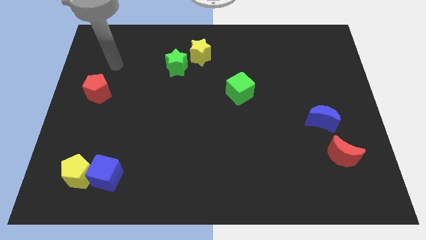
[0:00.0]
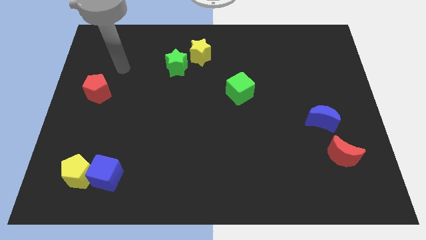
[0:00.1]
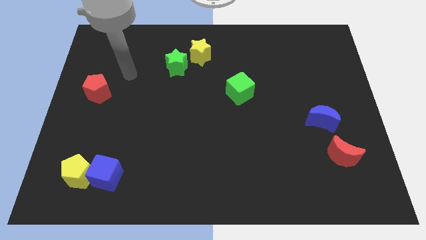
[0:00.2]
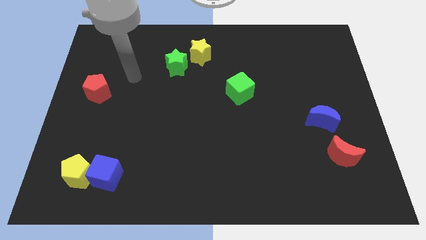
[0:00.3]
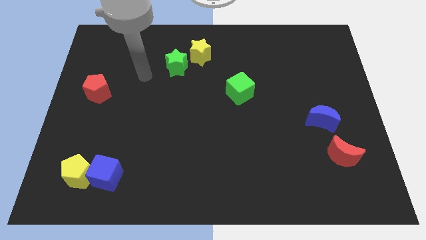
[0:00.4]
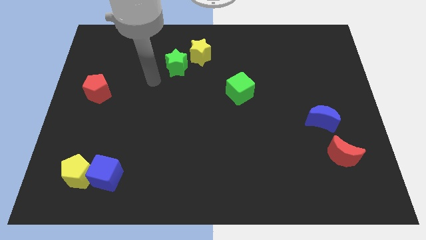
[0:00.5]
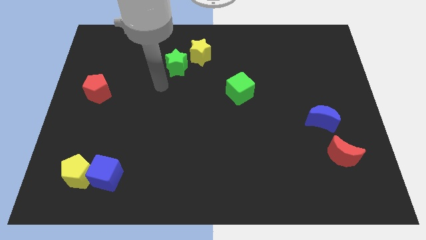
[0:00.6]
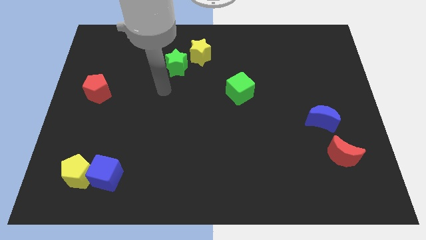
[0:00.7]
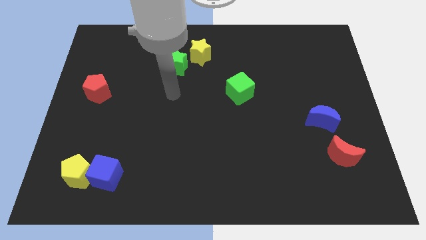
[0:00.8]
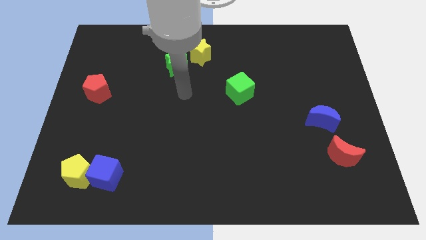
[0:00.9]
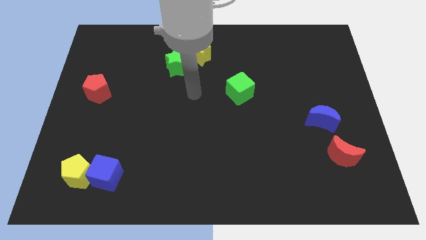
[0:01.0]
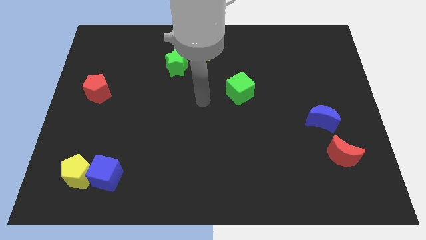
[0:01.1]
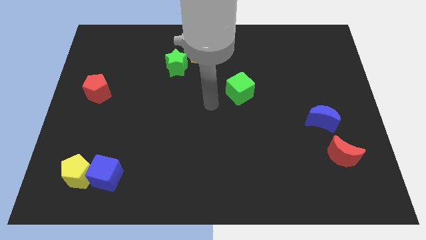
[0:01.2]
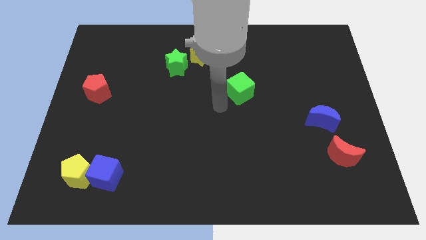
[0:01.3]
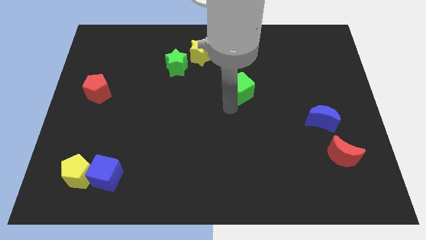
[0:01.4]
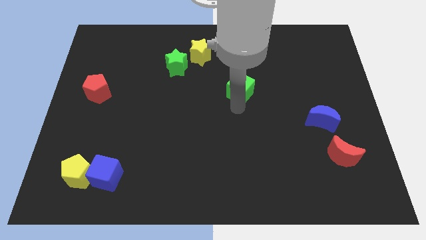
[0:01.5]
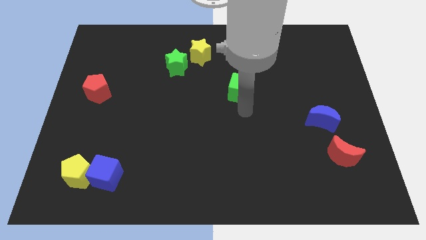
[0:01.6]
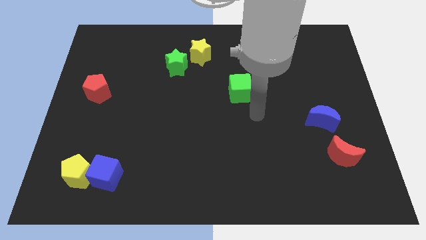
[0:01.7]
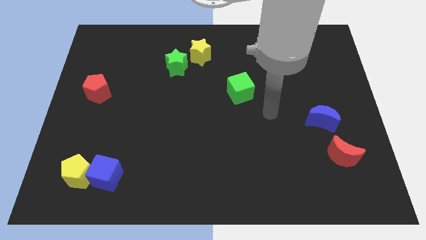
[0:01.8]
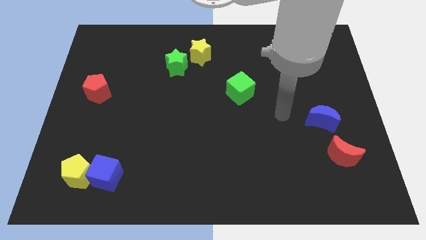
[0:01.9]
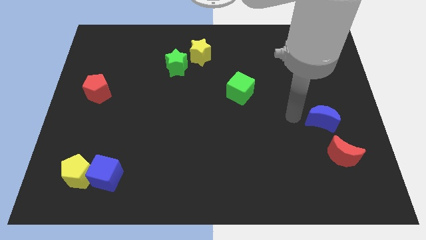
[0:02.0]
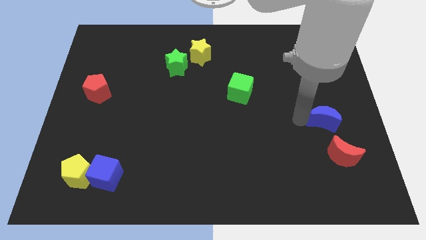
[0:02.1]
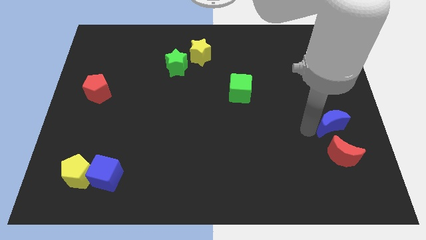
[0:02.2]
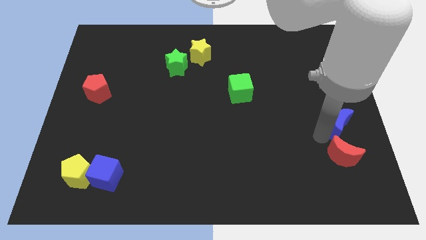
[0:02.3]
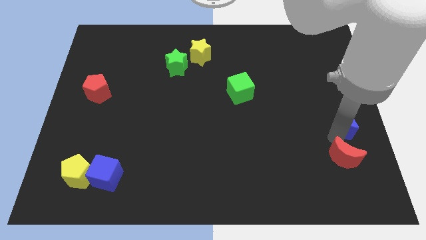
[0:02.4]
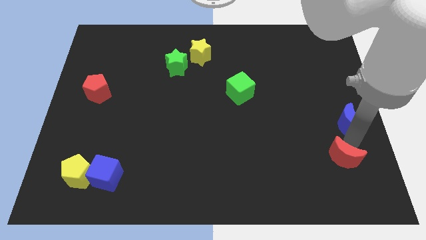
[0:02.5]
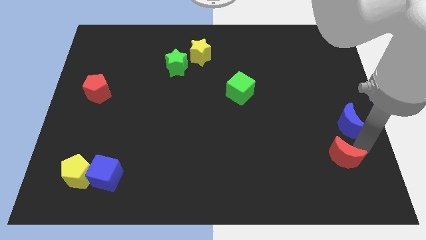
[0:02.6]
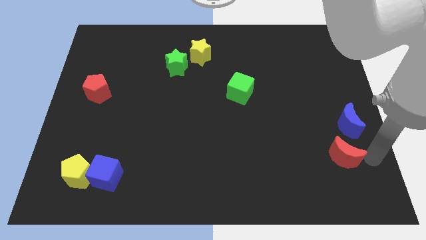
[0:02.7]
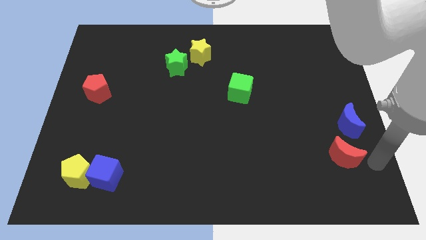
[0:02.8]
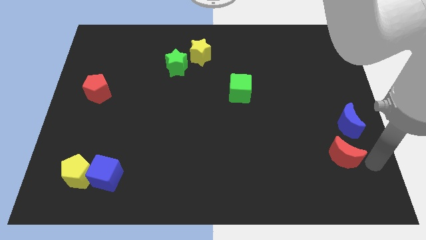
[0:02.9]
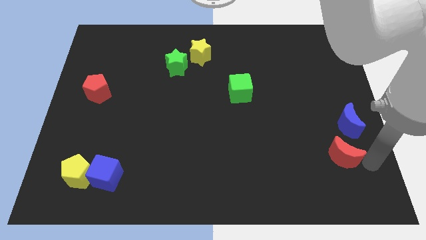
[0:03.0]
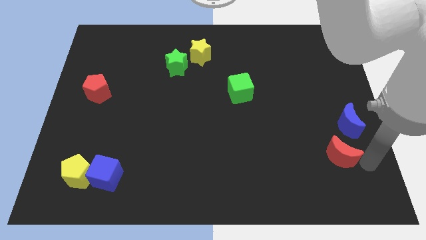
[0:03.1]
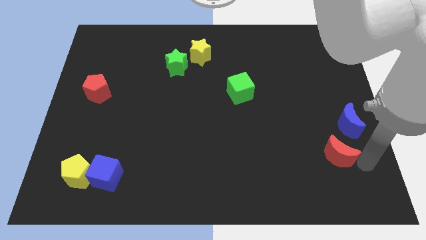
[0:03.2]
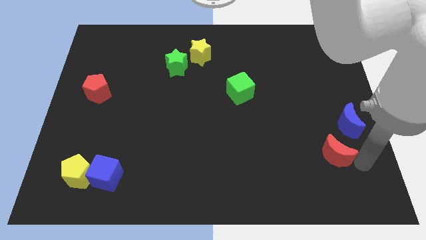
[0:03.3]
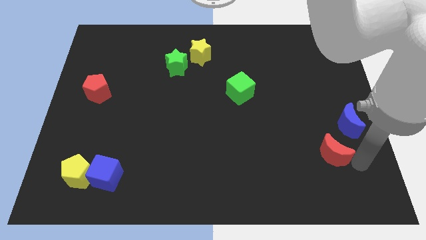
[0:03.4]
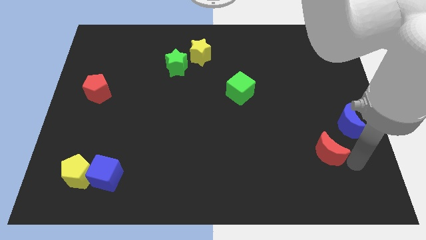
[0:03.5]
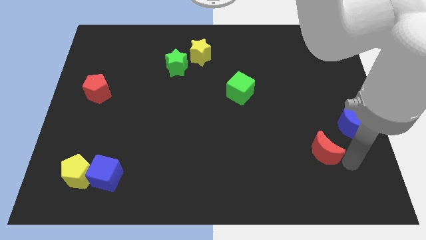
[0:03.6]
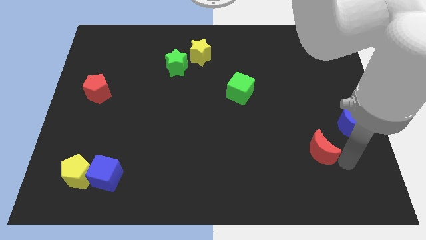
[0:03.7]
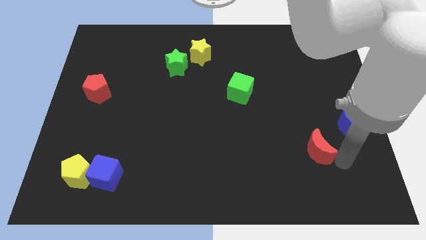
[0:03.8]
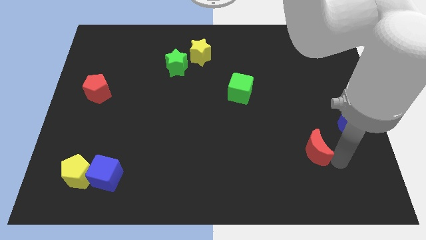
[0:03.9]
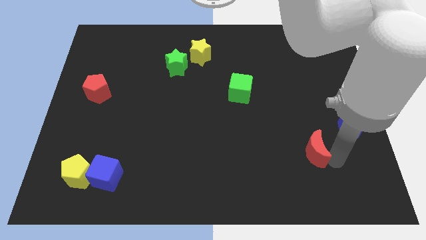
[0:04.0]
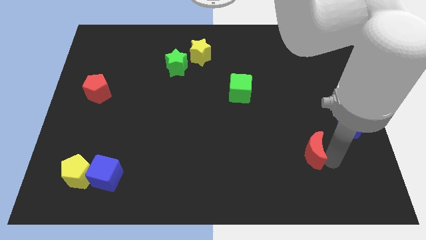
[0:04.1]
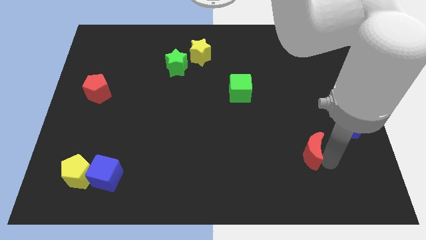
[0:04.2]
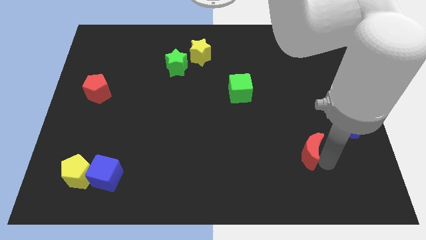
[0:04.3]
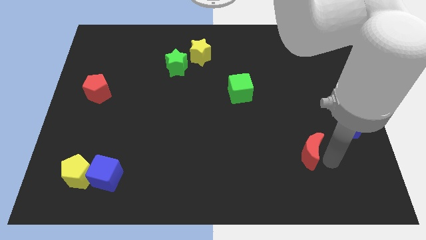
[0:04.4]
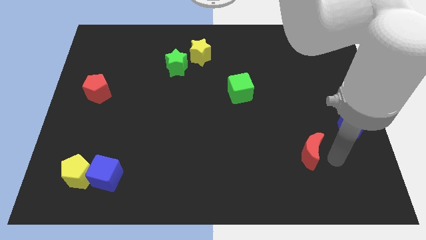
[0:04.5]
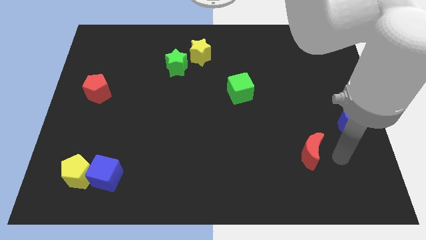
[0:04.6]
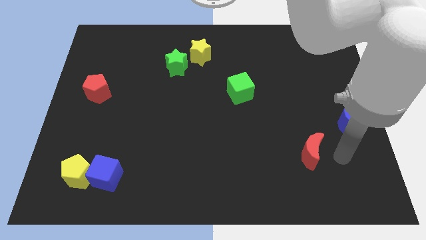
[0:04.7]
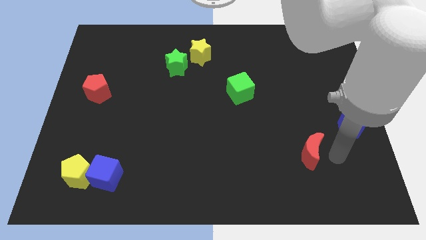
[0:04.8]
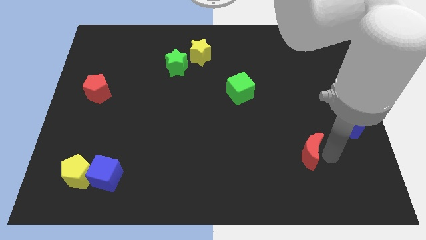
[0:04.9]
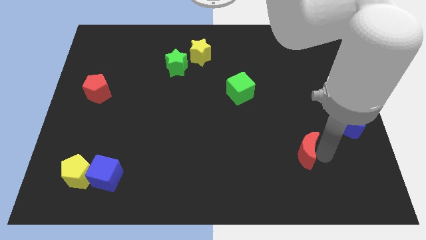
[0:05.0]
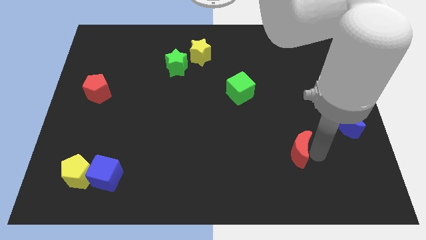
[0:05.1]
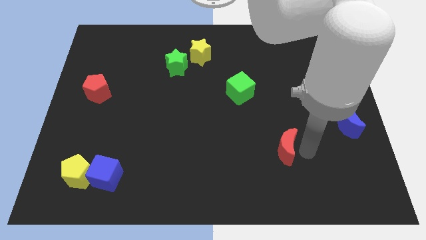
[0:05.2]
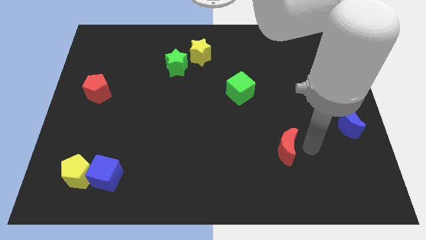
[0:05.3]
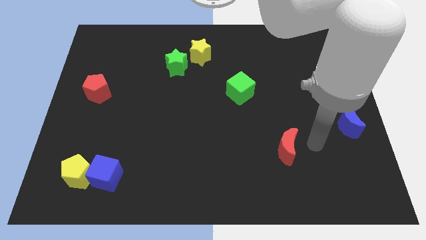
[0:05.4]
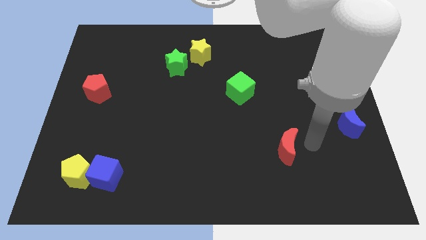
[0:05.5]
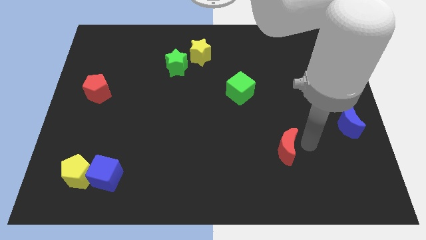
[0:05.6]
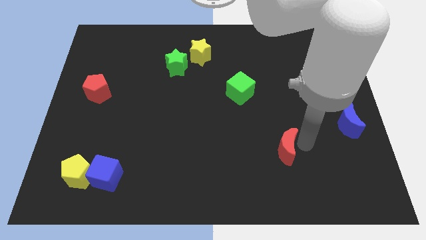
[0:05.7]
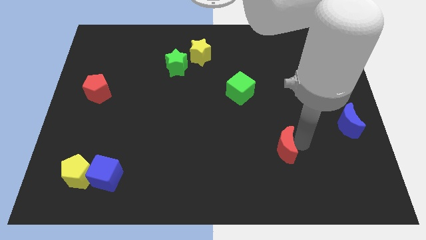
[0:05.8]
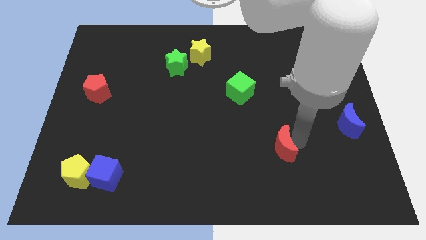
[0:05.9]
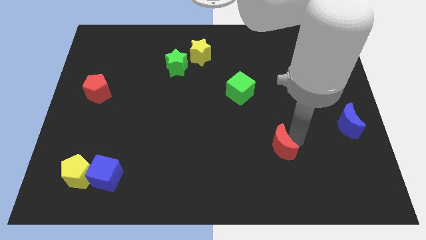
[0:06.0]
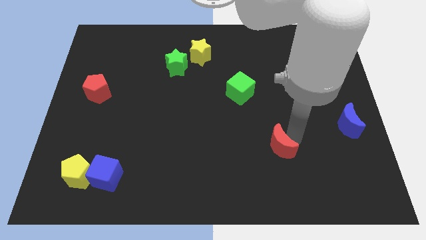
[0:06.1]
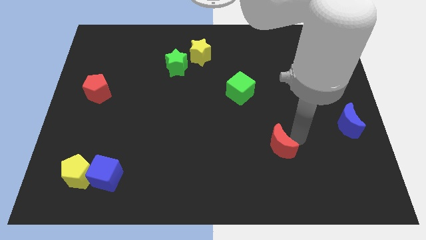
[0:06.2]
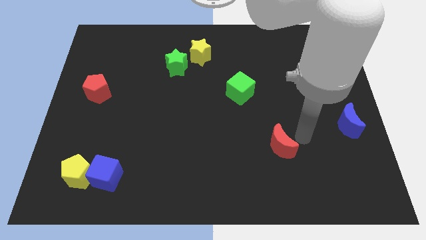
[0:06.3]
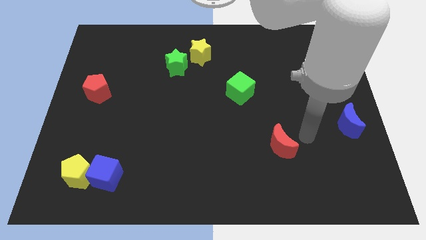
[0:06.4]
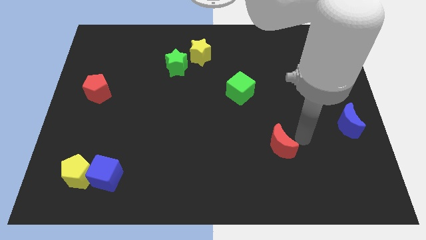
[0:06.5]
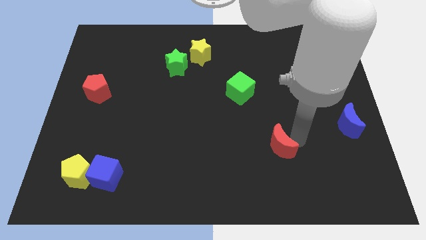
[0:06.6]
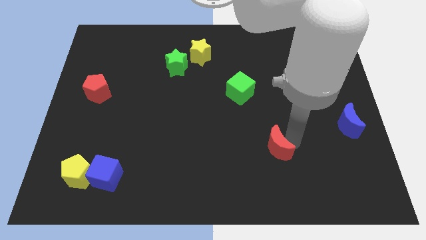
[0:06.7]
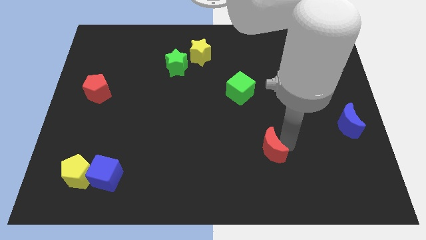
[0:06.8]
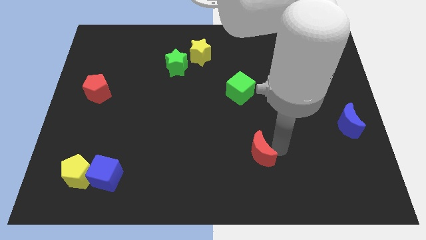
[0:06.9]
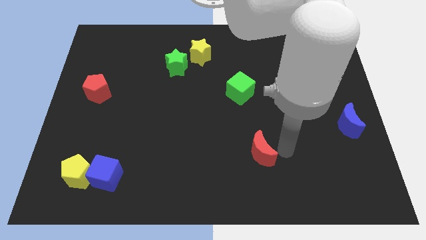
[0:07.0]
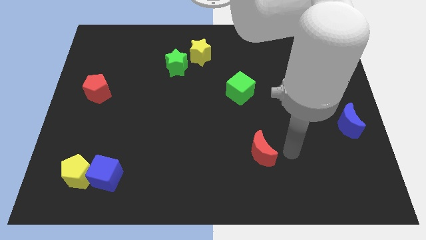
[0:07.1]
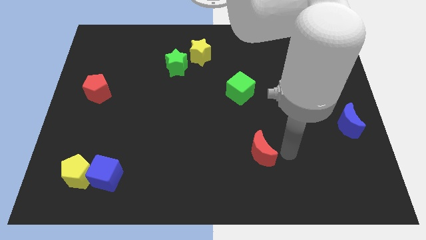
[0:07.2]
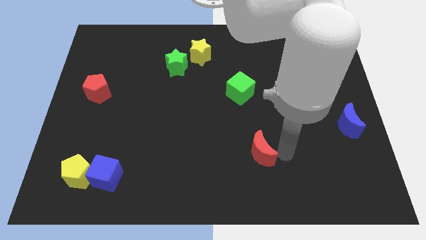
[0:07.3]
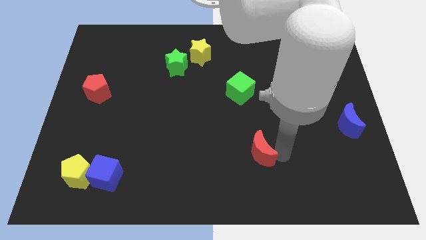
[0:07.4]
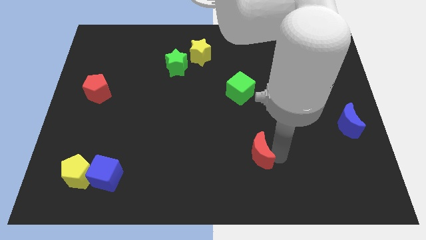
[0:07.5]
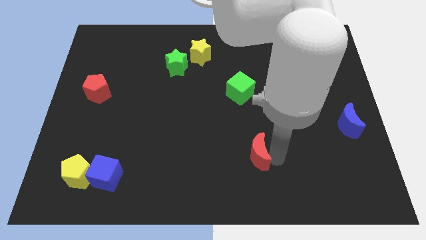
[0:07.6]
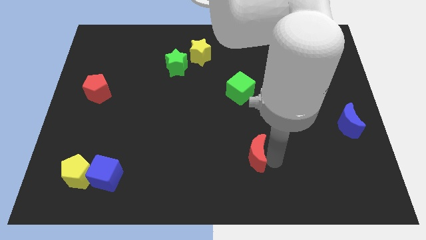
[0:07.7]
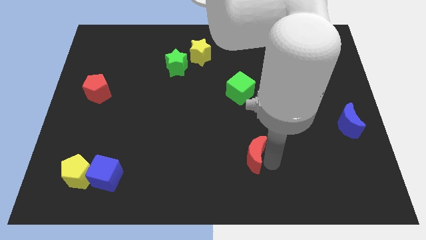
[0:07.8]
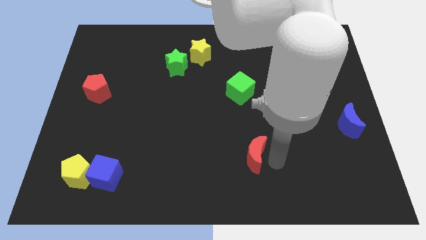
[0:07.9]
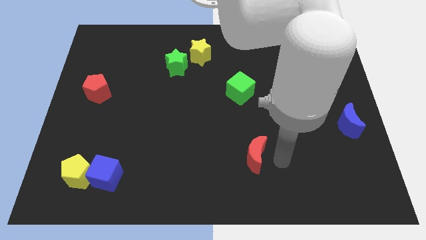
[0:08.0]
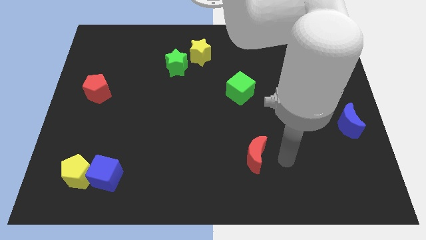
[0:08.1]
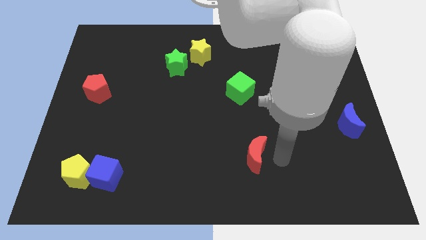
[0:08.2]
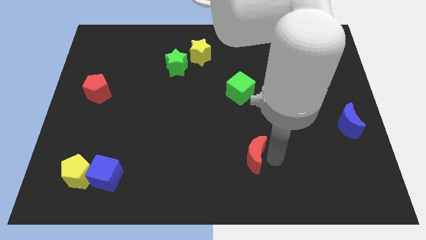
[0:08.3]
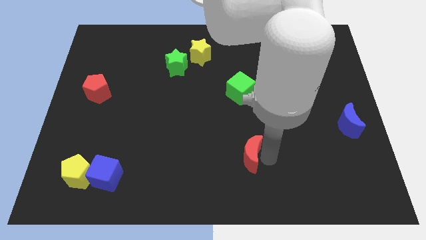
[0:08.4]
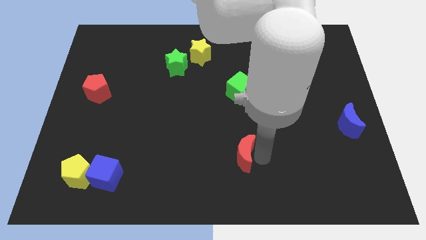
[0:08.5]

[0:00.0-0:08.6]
slide the red moon to the left
